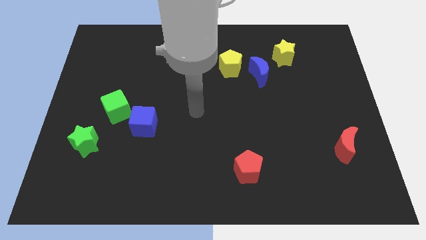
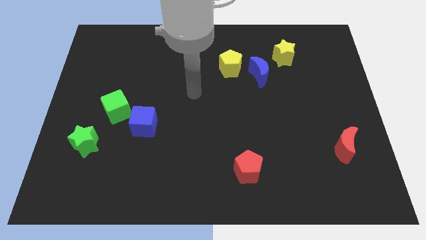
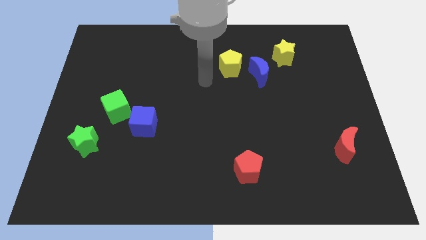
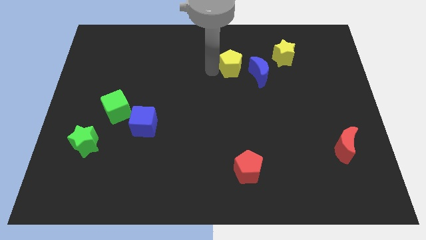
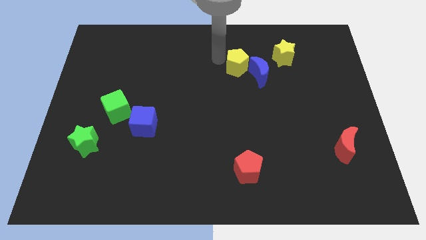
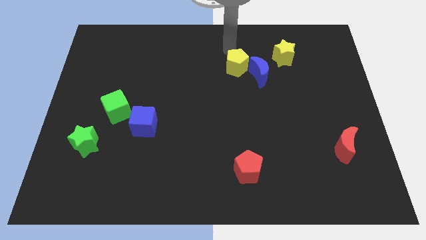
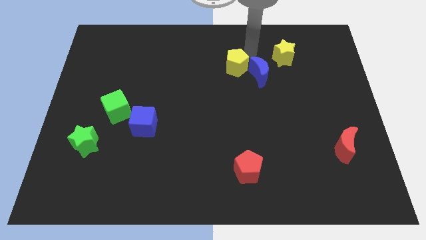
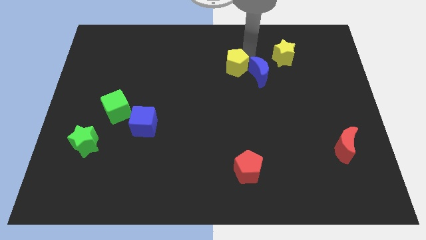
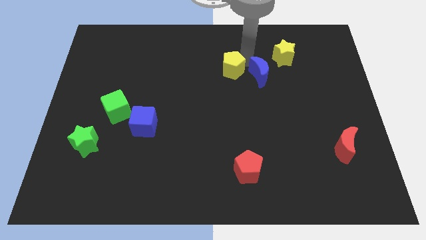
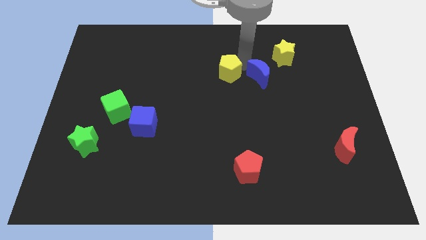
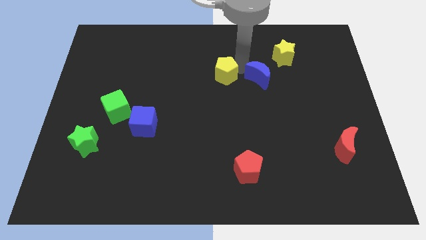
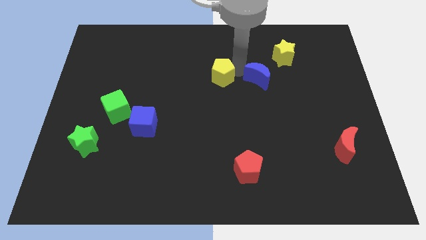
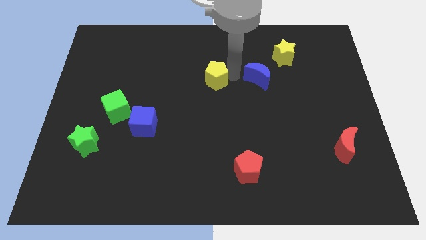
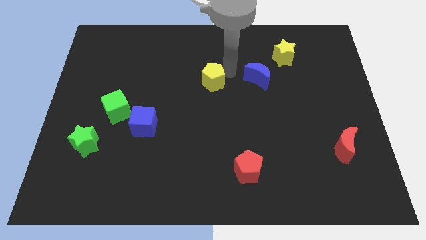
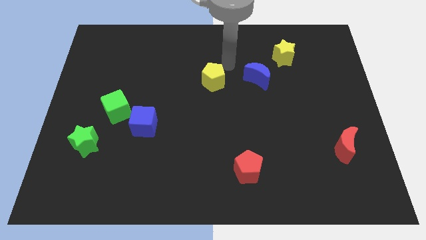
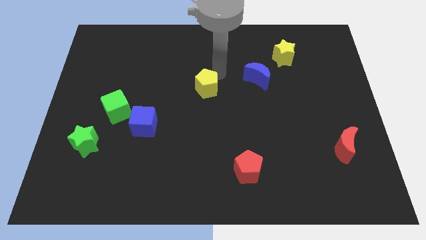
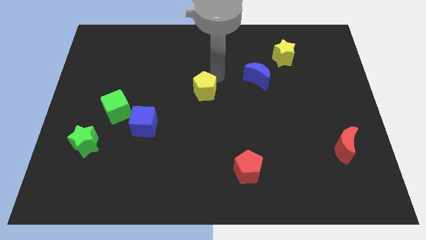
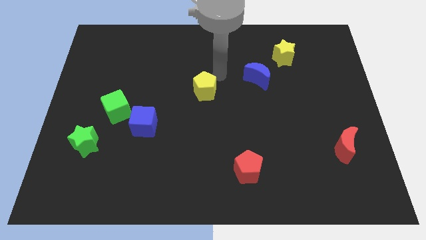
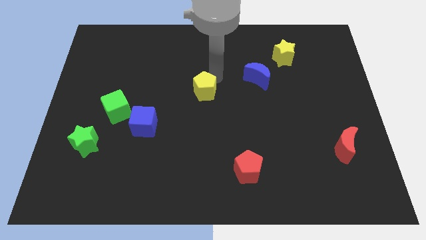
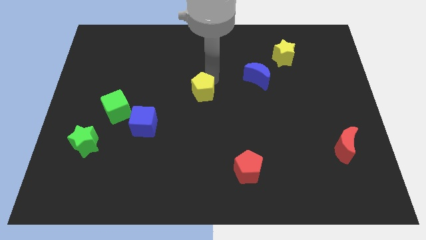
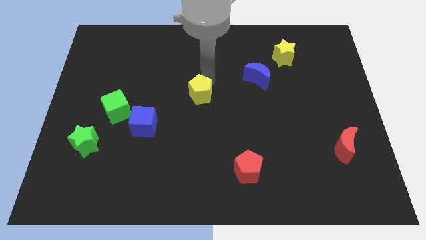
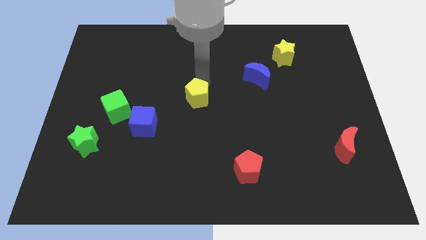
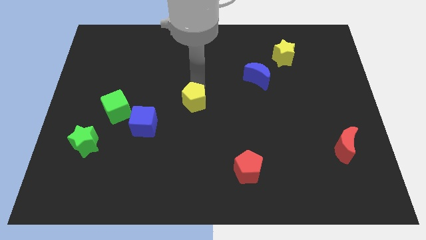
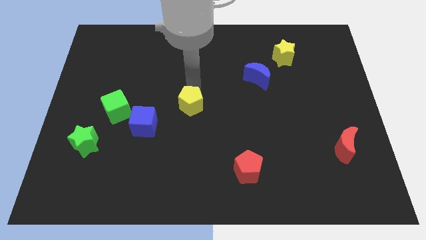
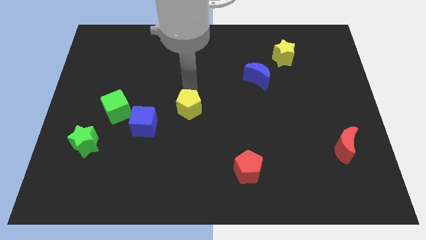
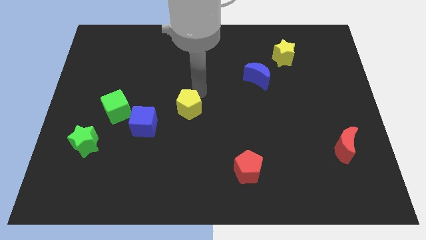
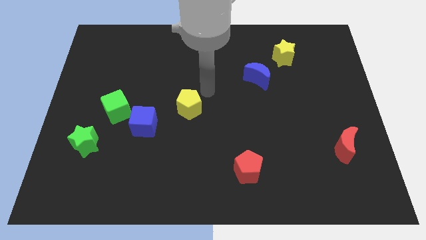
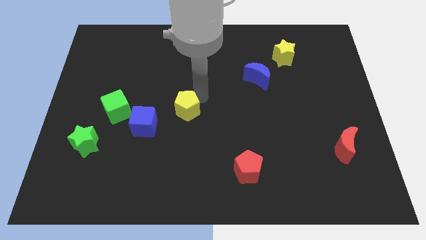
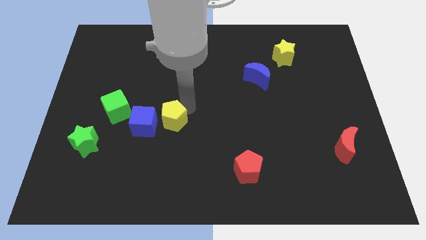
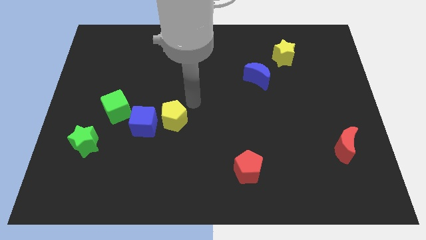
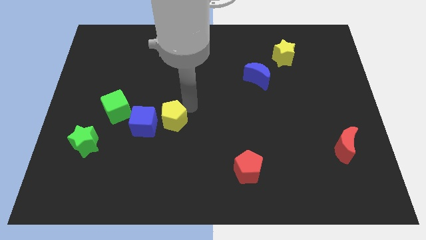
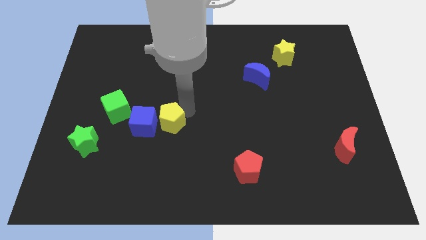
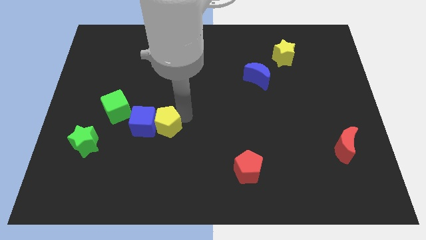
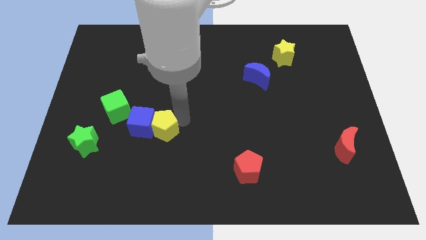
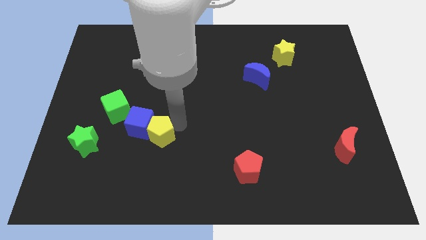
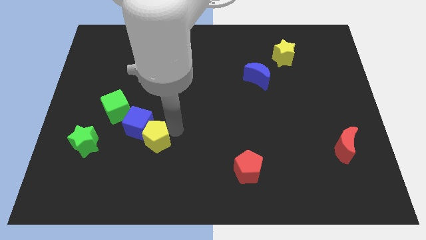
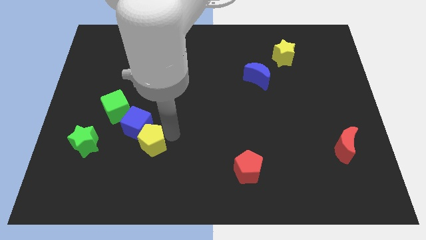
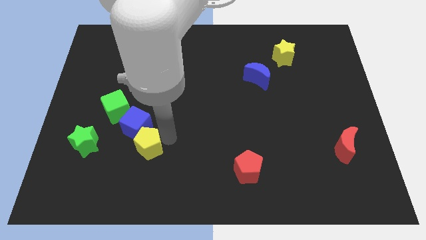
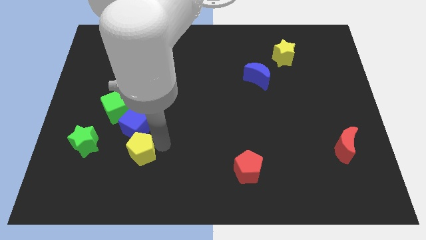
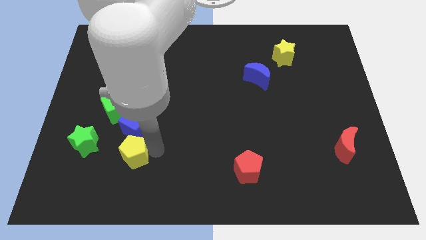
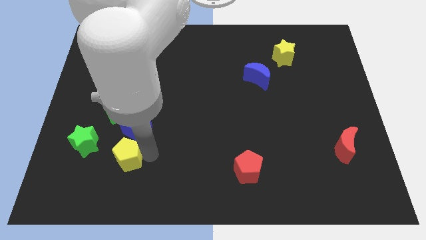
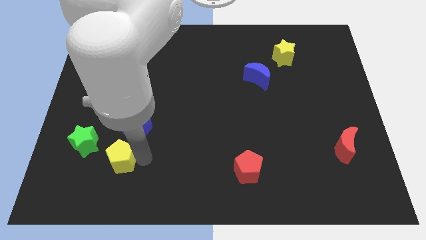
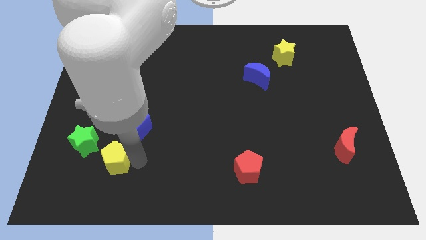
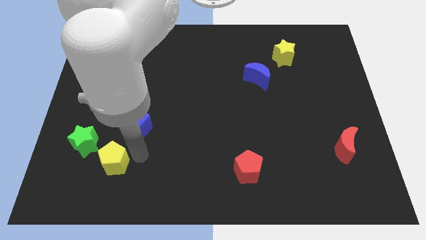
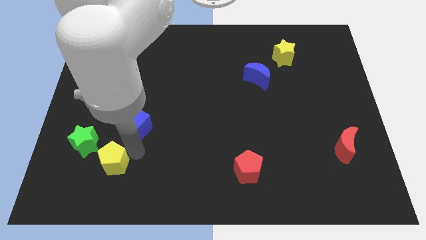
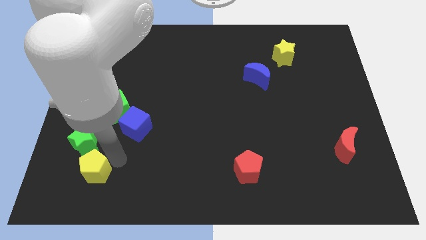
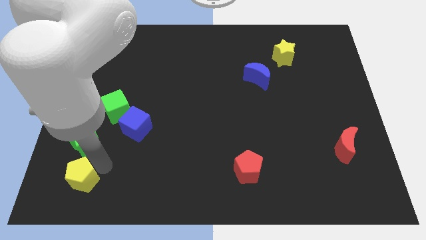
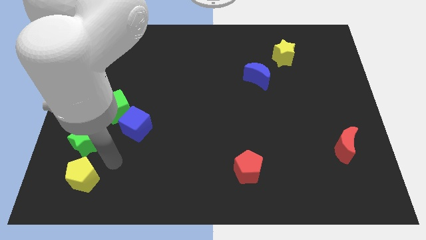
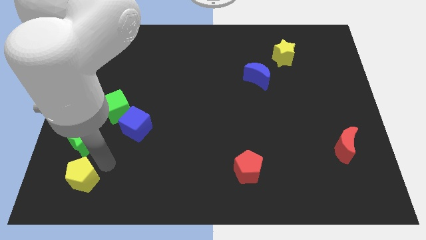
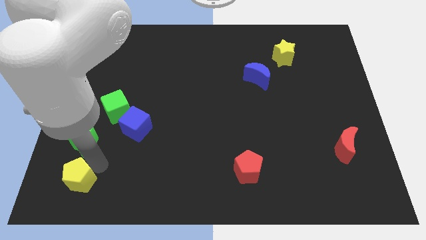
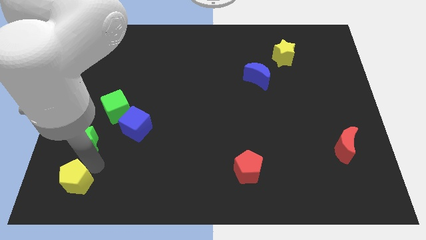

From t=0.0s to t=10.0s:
put the yellow pentagon to the lower left corner

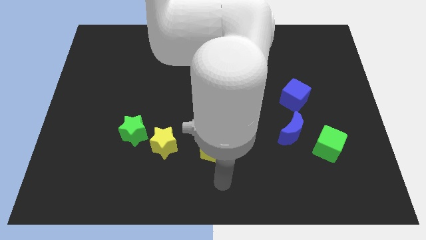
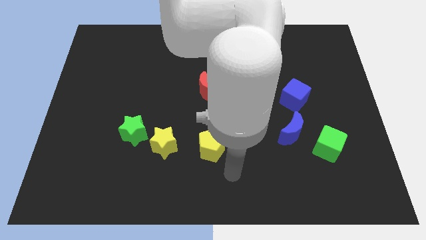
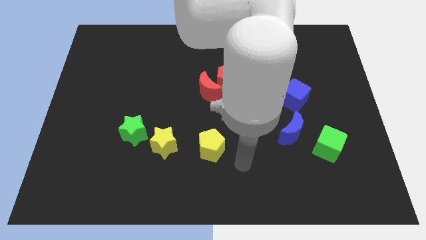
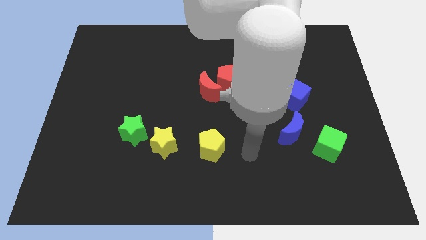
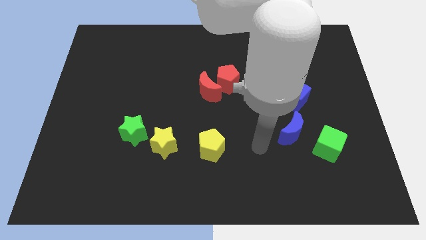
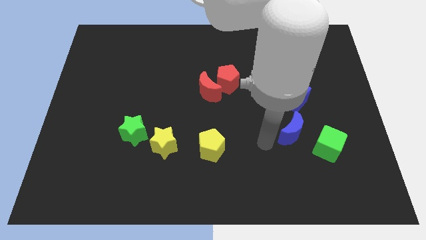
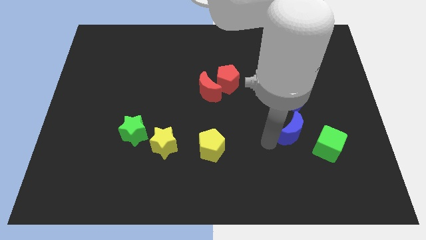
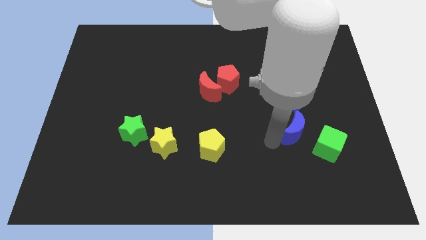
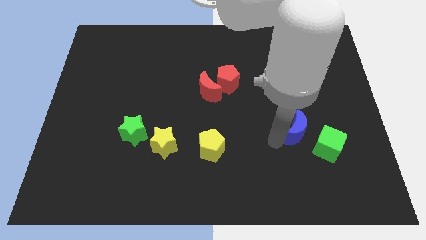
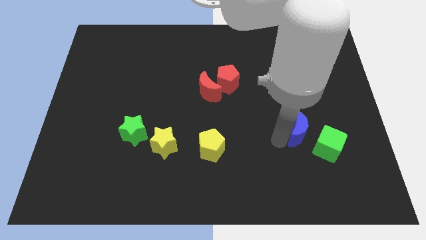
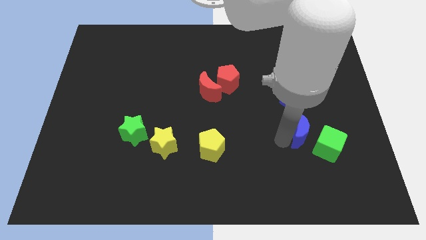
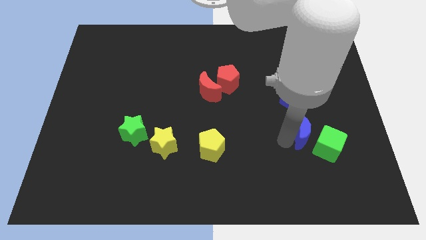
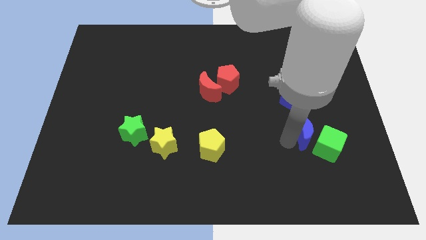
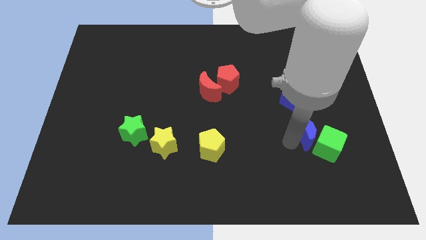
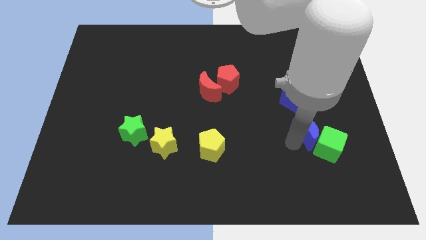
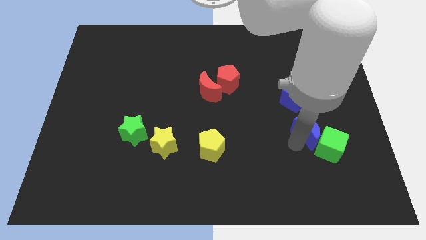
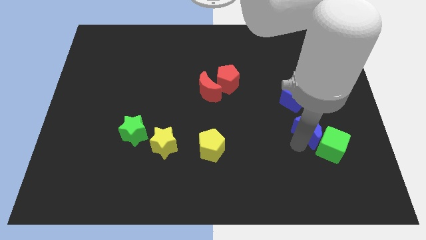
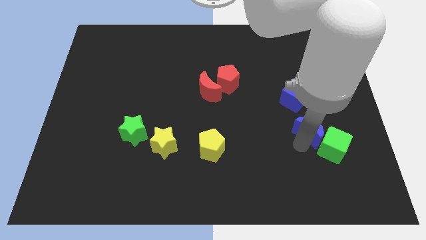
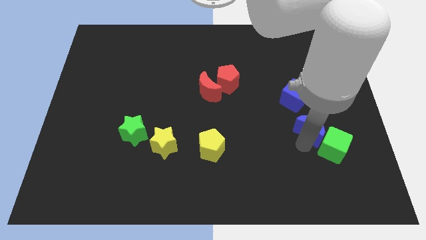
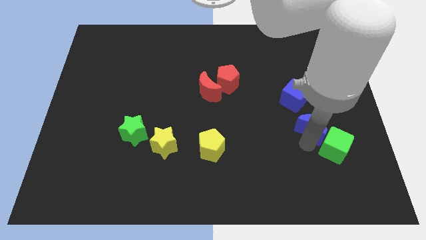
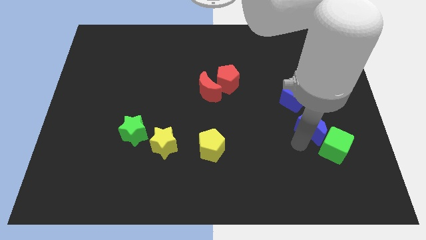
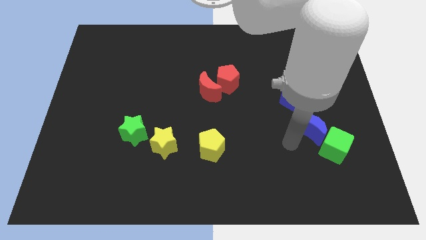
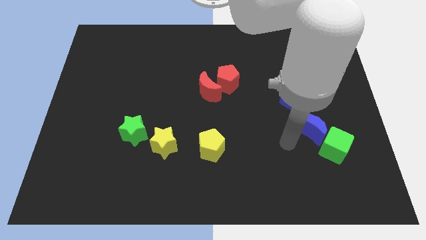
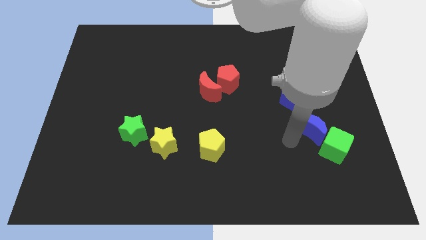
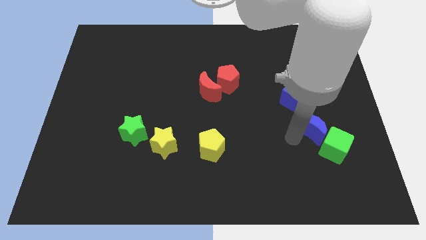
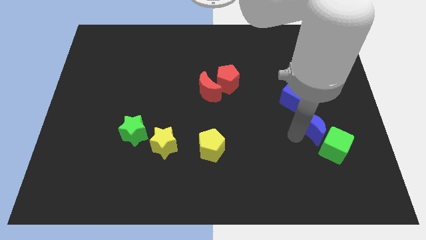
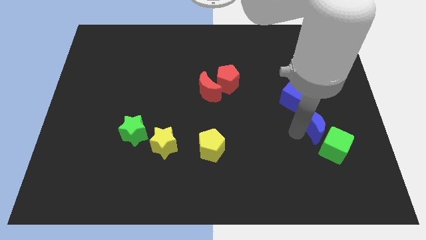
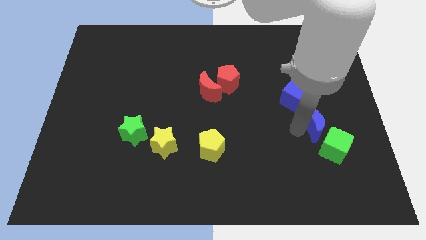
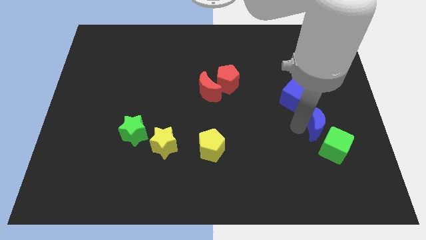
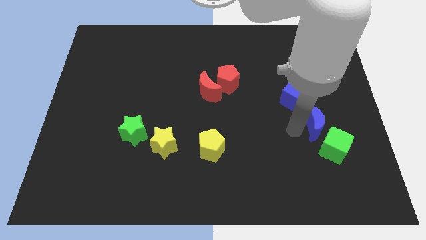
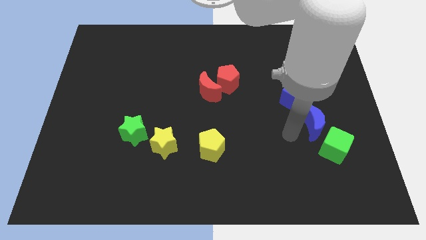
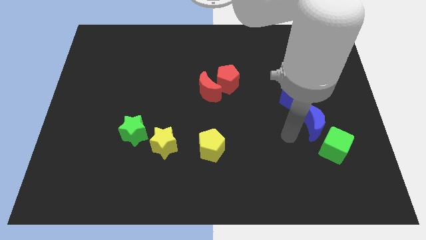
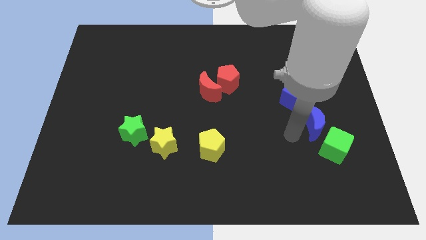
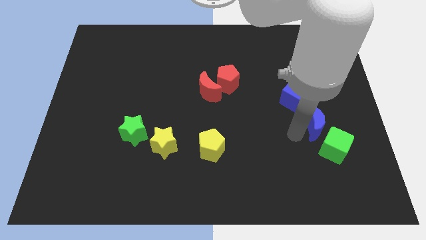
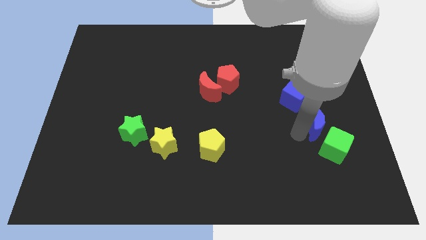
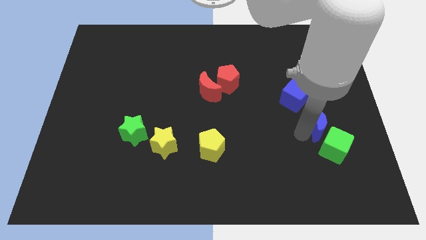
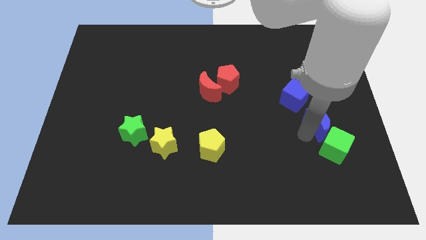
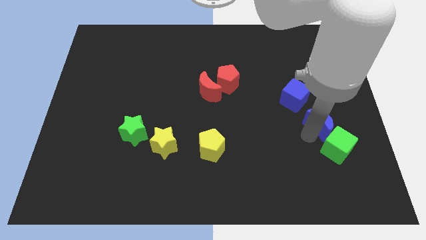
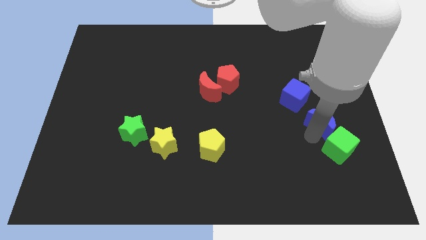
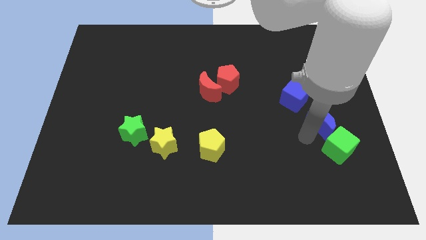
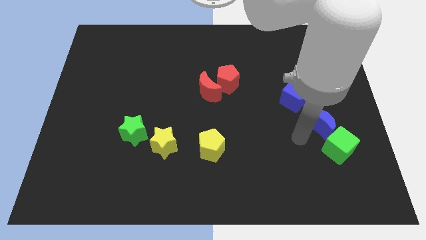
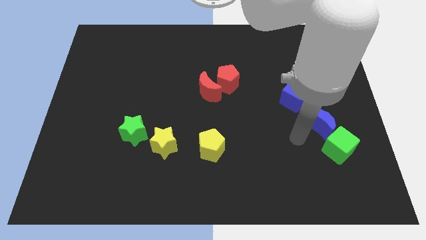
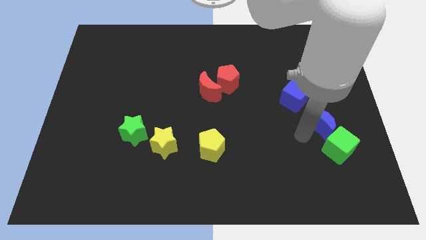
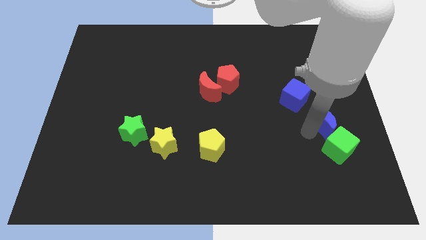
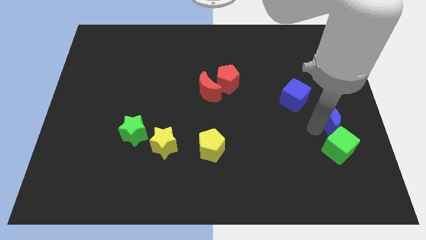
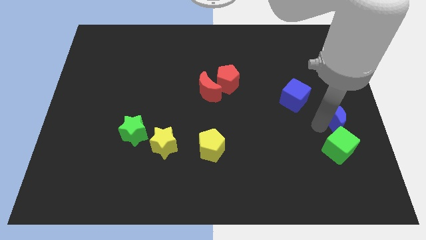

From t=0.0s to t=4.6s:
slide the blue moon to the center right
